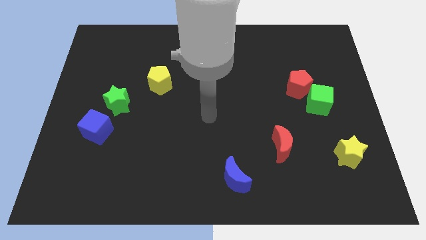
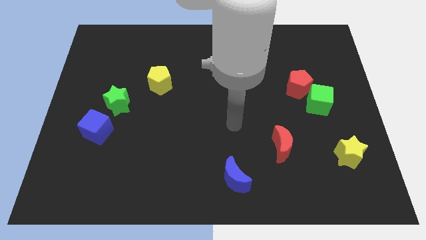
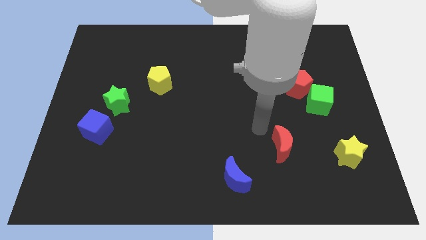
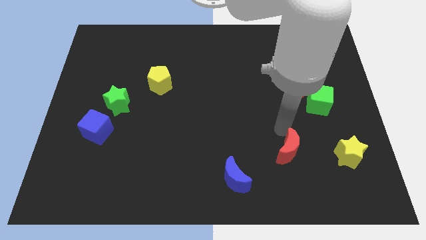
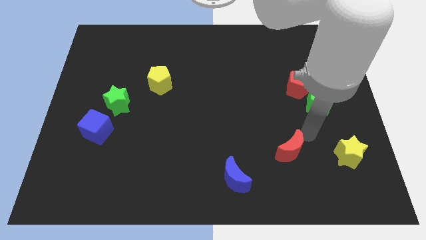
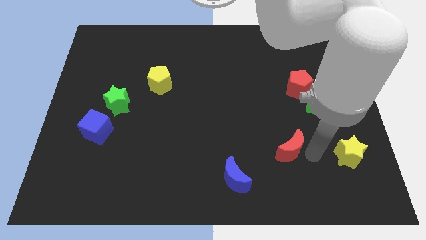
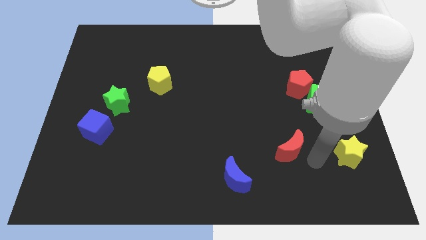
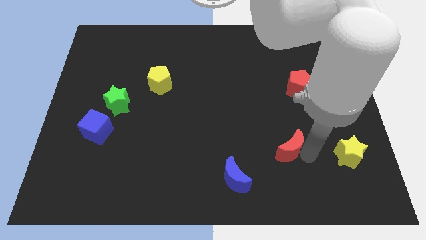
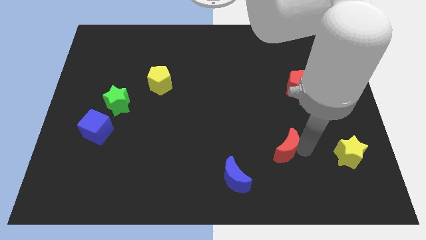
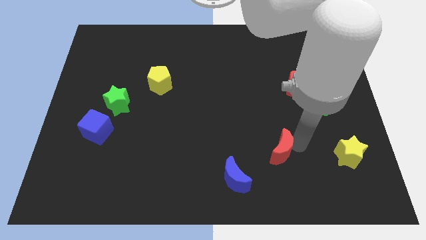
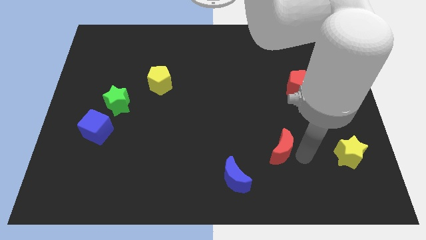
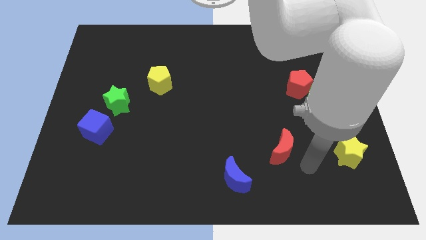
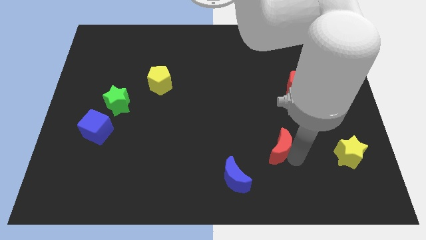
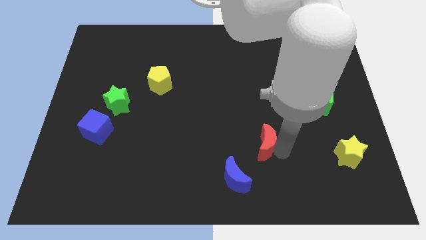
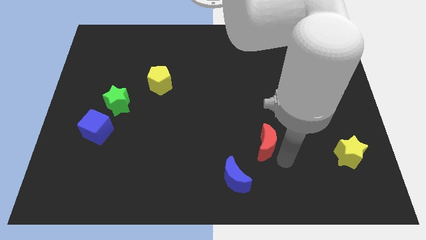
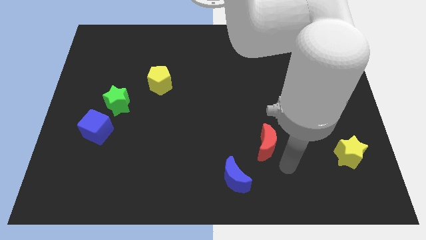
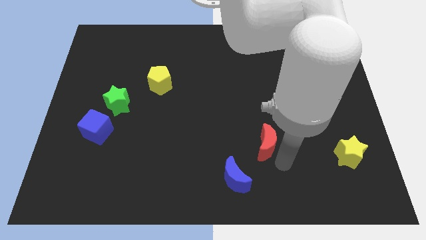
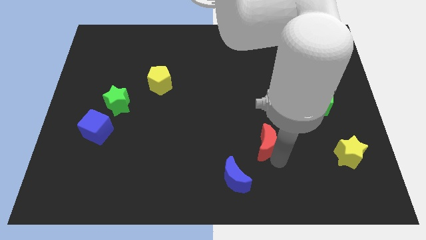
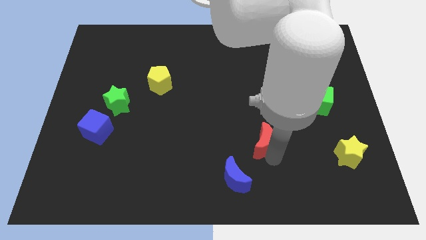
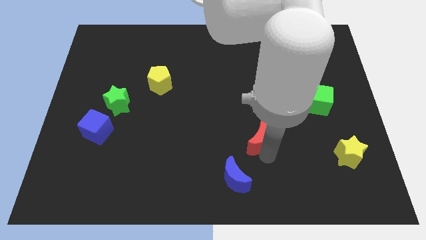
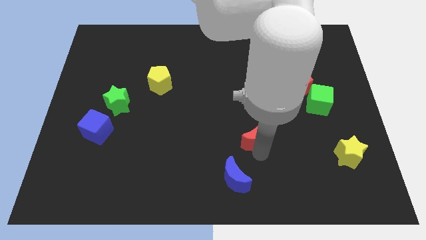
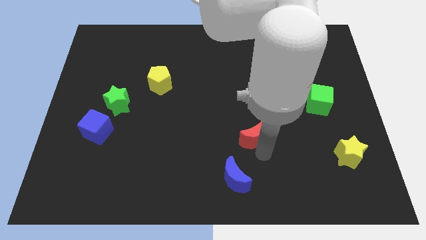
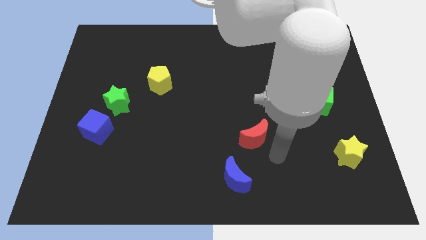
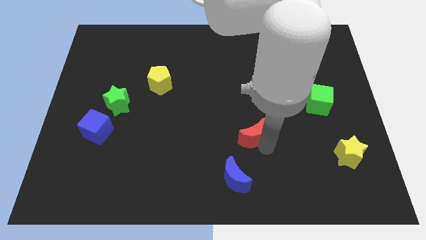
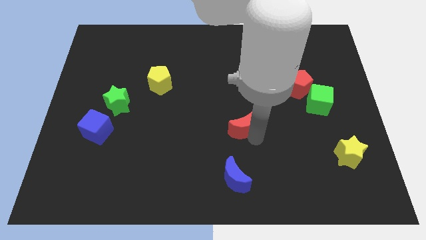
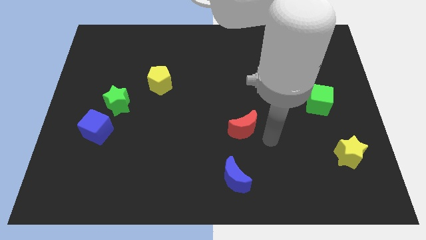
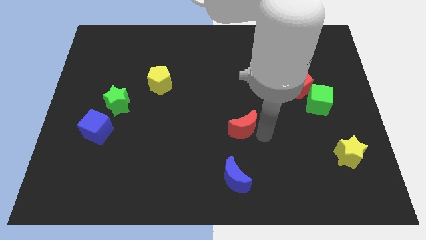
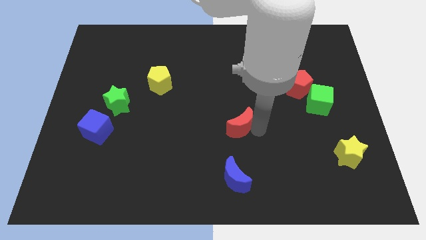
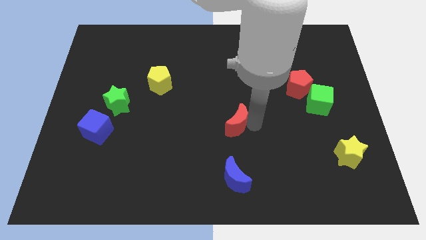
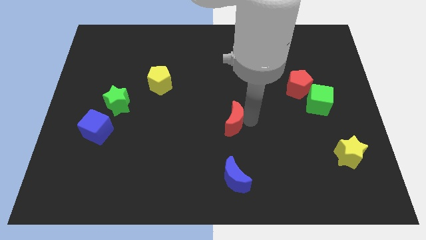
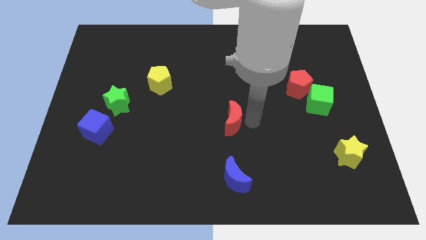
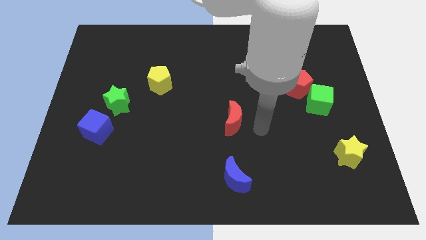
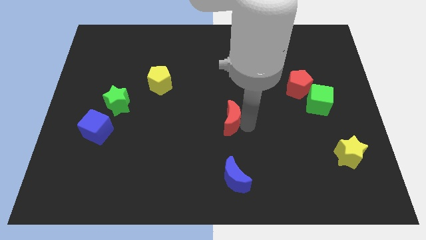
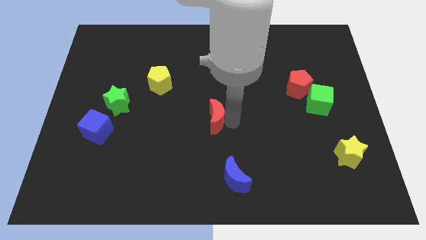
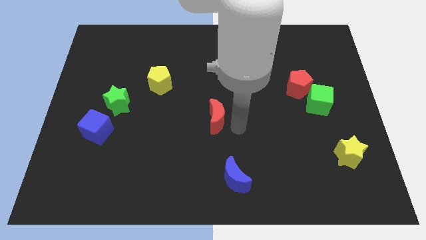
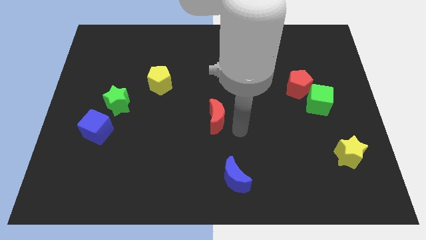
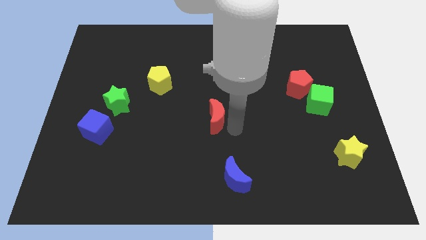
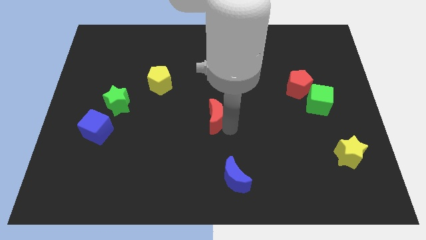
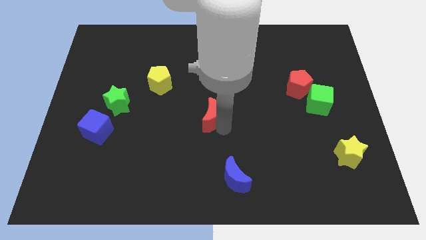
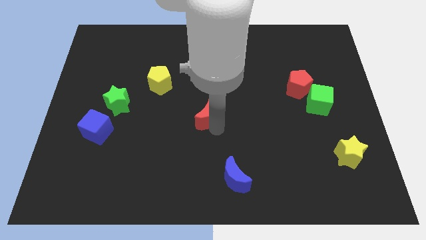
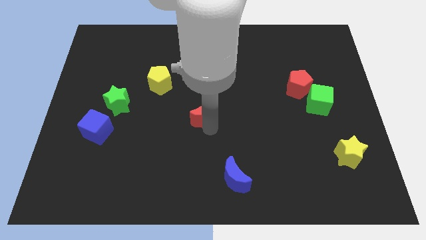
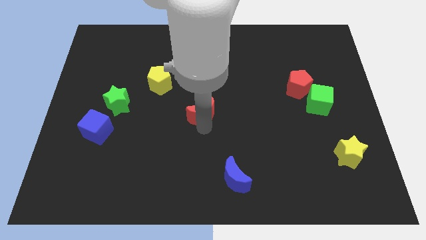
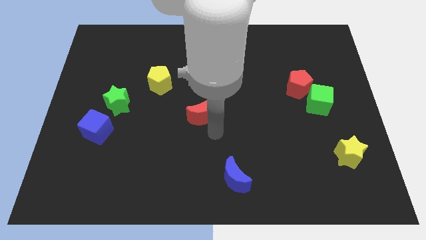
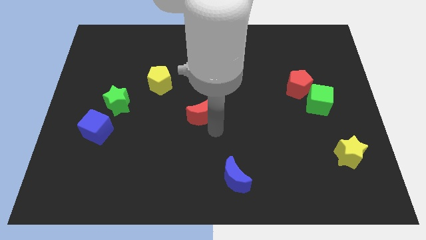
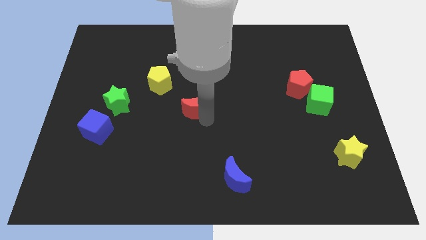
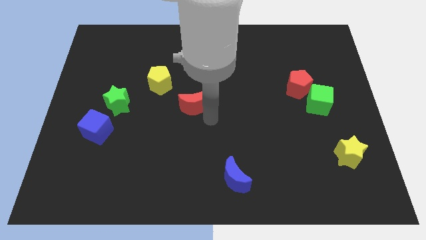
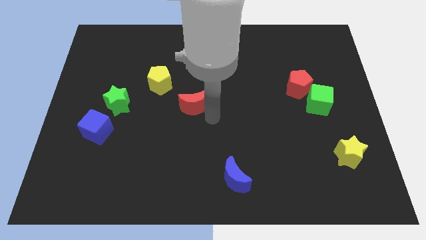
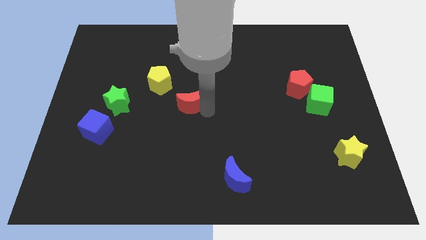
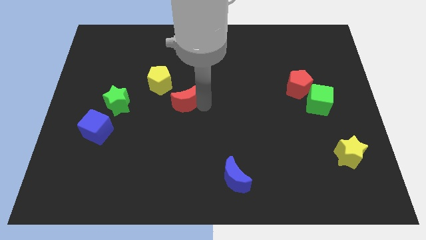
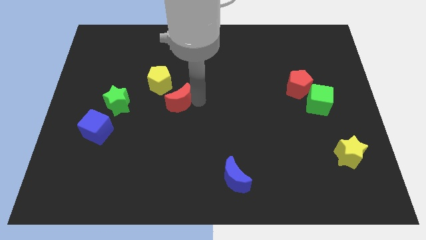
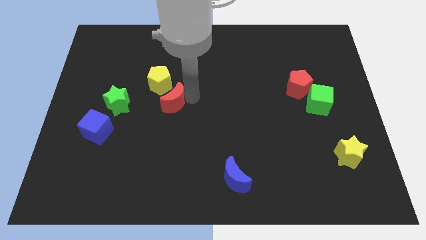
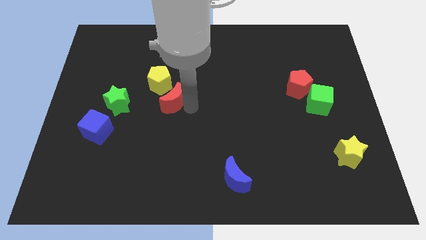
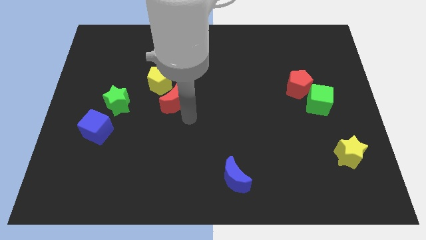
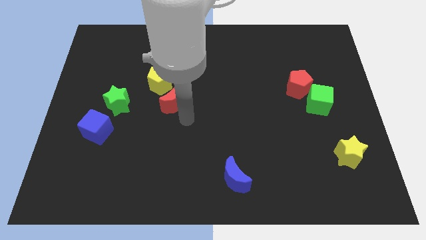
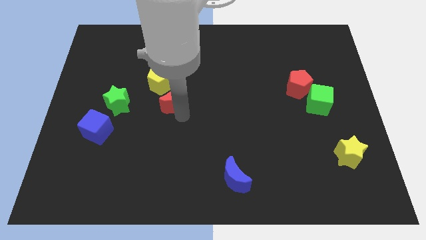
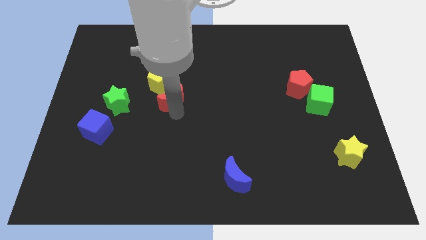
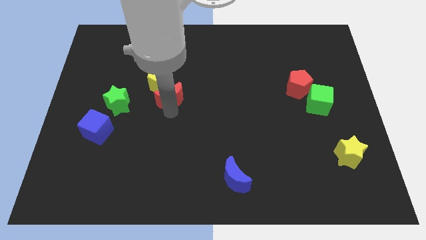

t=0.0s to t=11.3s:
push the red moon next to the yellow pentagon

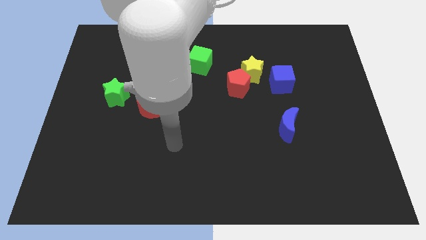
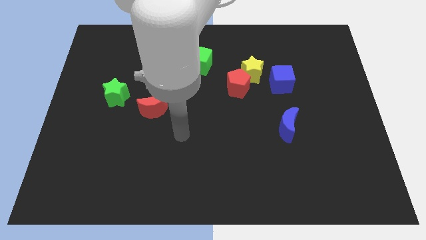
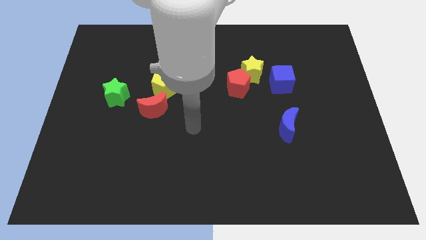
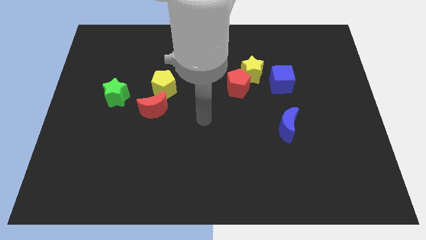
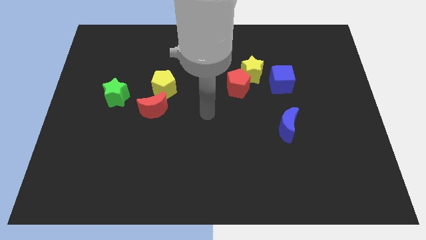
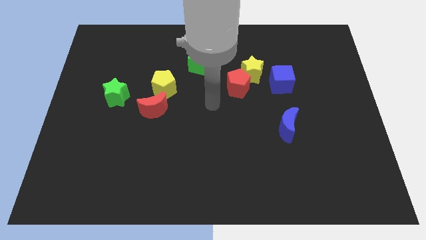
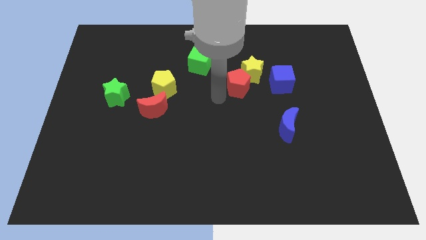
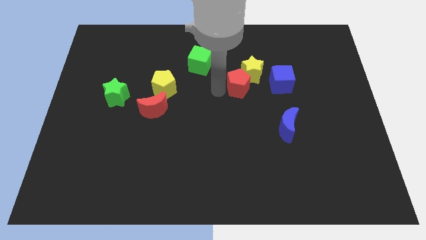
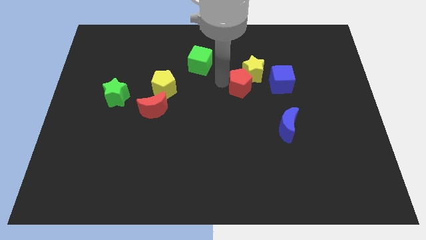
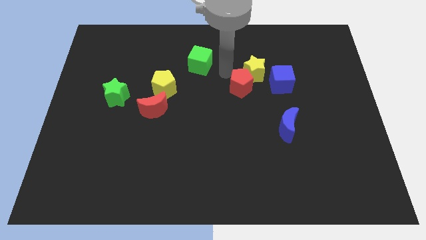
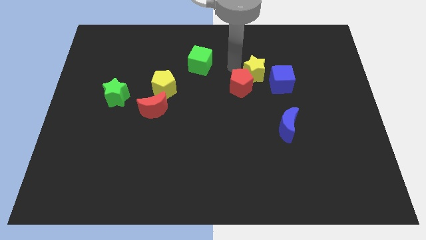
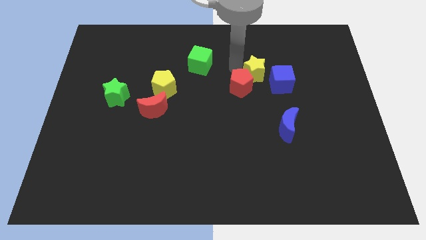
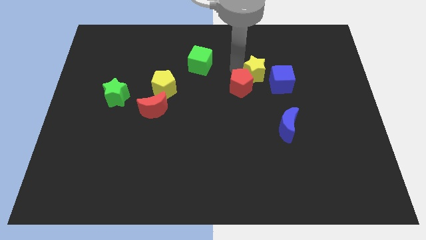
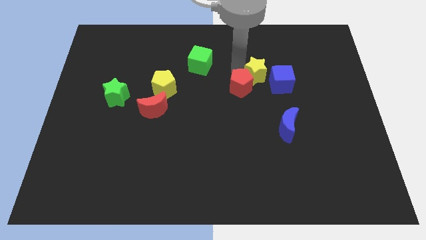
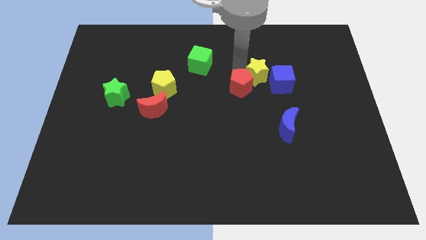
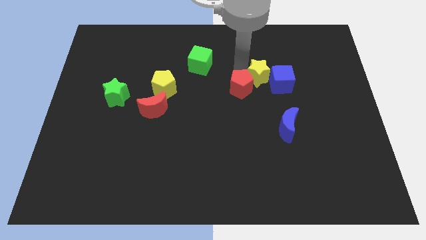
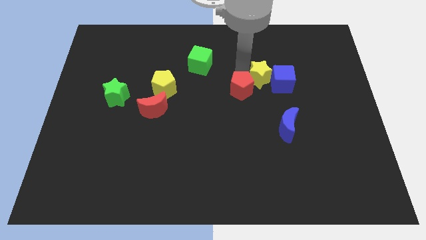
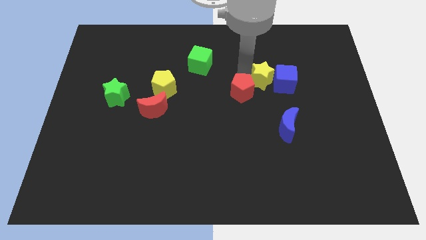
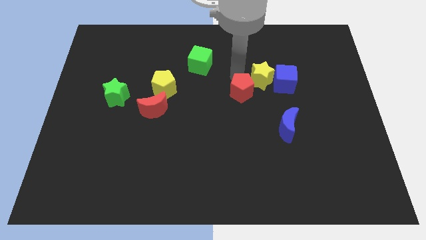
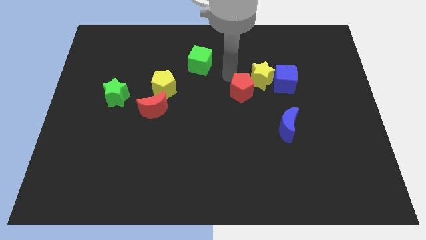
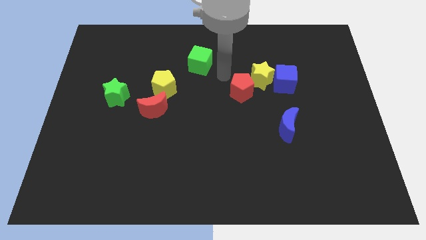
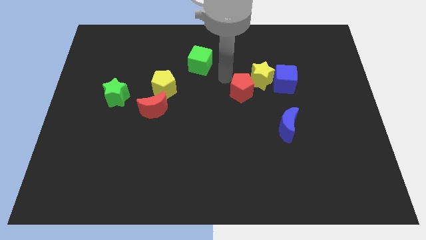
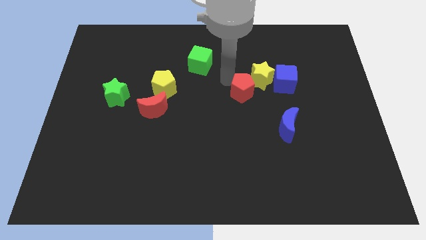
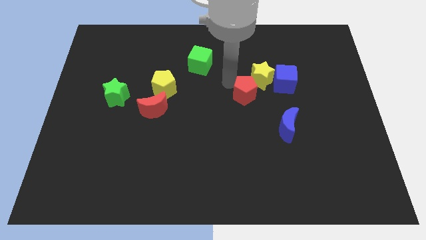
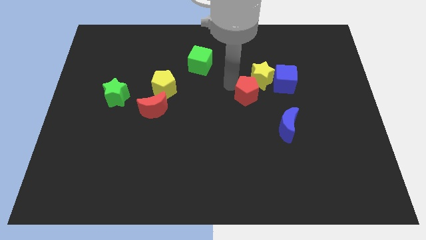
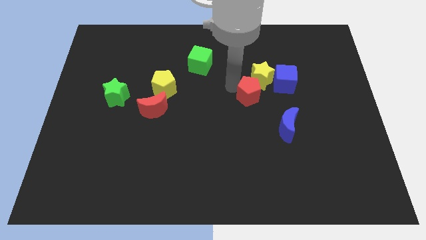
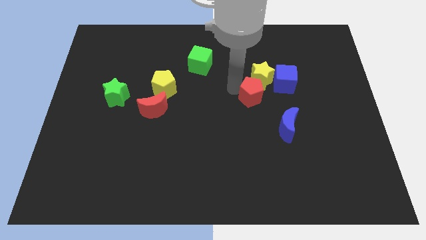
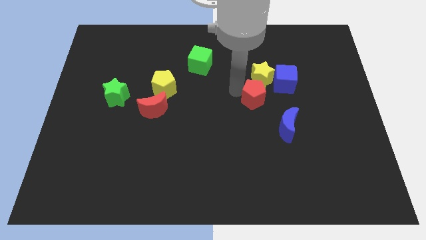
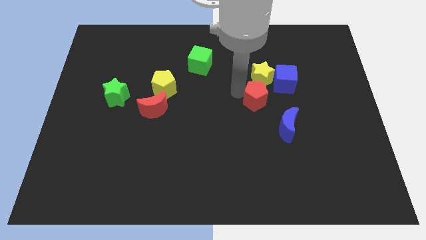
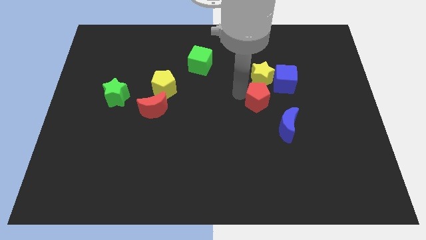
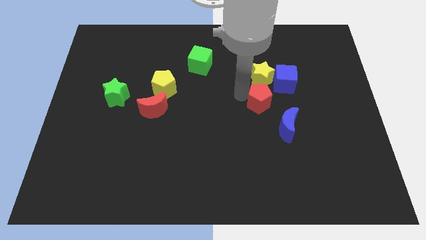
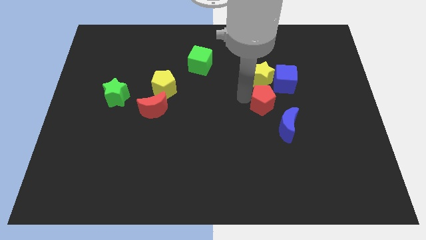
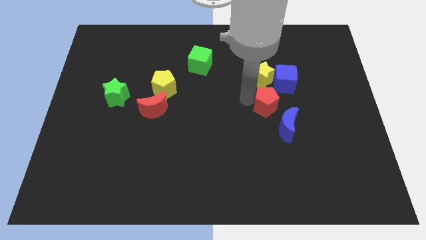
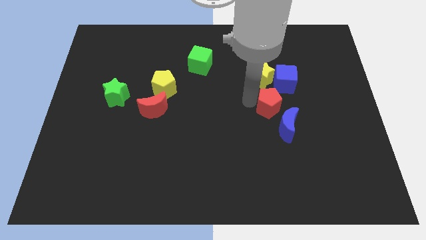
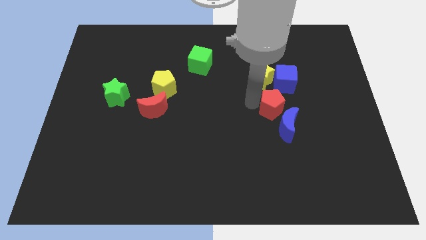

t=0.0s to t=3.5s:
move the red pentagon close to the blue moon
